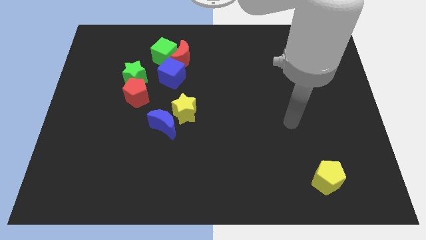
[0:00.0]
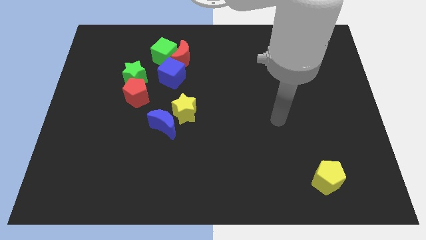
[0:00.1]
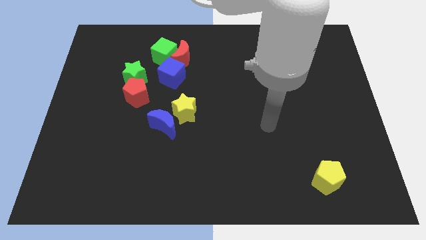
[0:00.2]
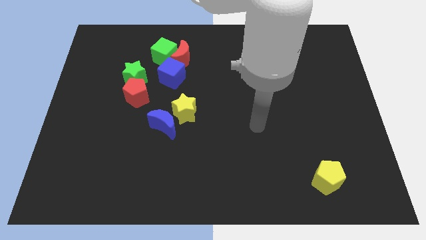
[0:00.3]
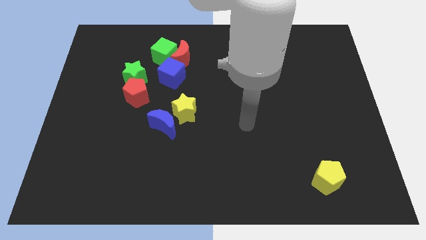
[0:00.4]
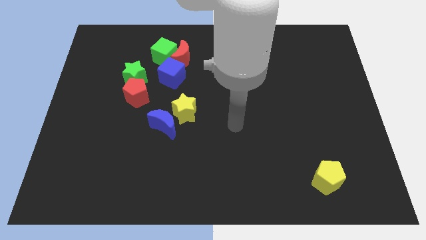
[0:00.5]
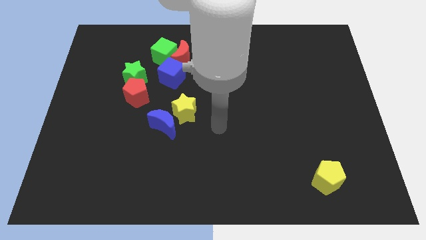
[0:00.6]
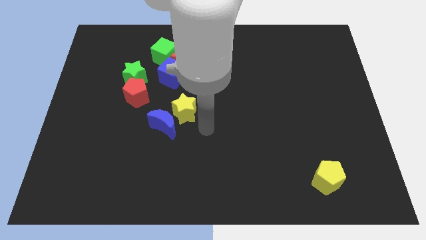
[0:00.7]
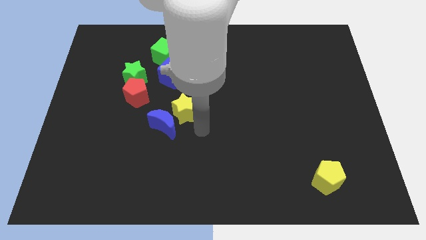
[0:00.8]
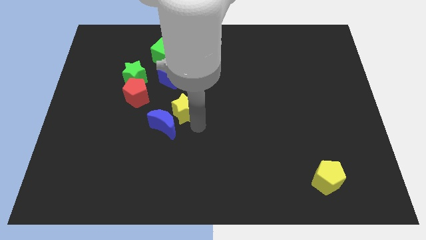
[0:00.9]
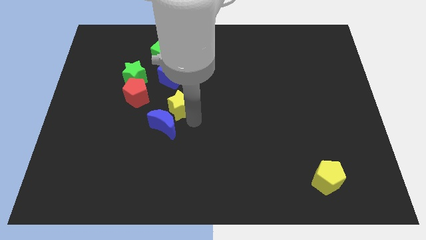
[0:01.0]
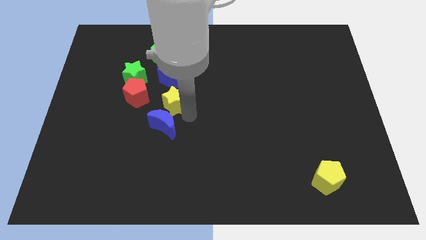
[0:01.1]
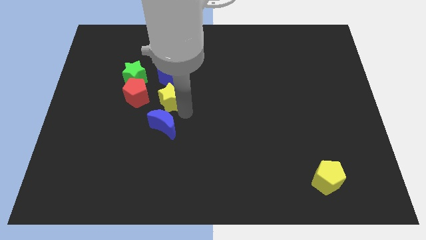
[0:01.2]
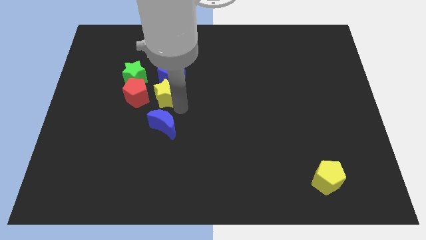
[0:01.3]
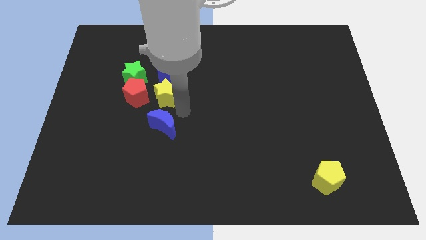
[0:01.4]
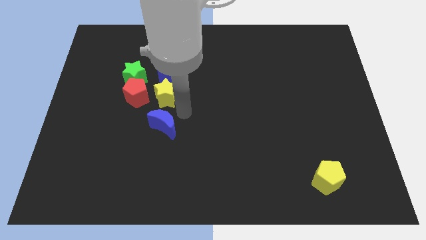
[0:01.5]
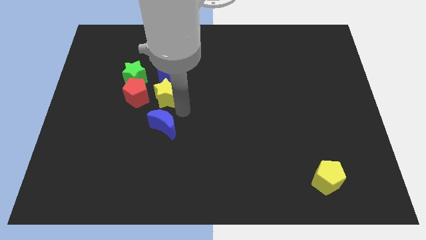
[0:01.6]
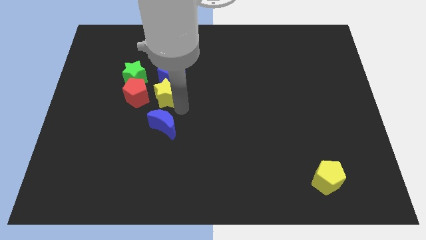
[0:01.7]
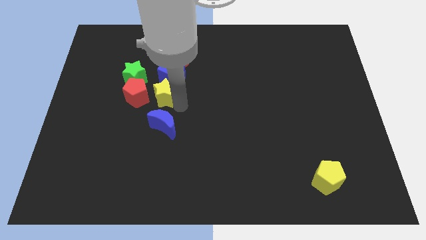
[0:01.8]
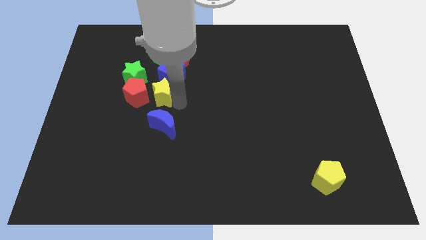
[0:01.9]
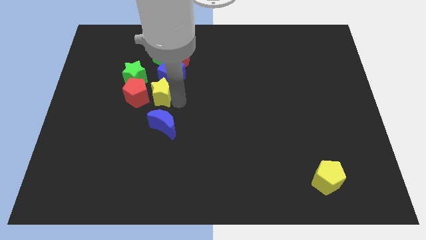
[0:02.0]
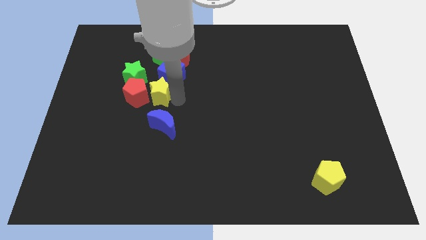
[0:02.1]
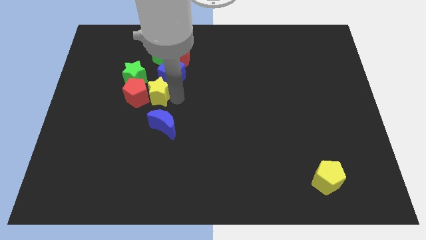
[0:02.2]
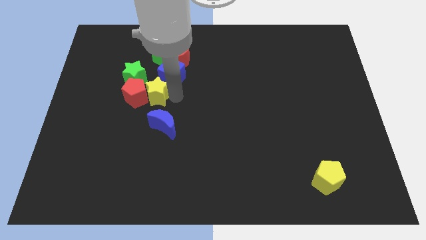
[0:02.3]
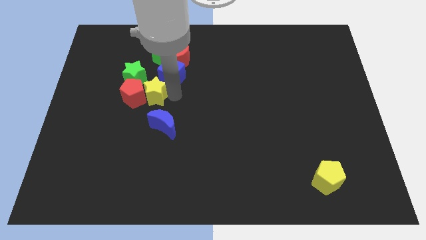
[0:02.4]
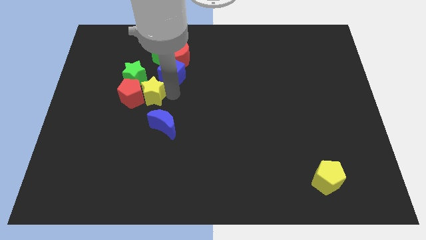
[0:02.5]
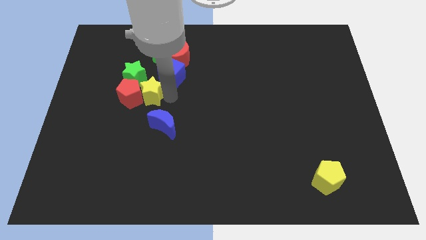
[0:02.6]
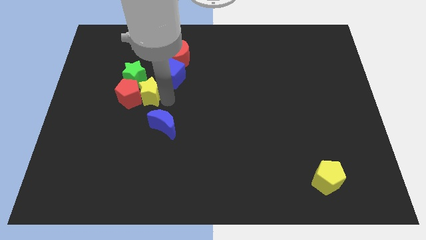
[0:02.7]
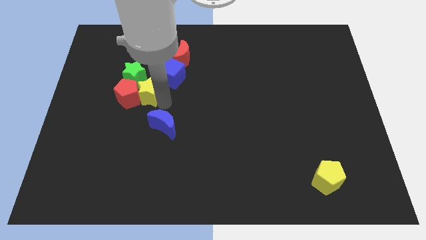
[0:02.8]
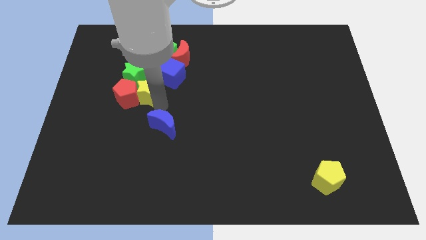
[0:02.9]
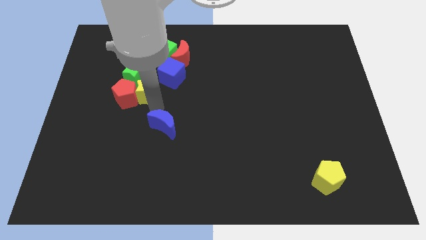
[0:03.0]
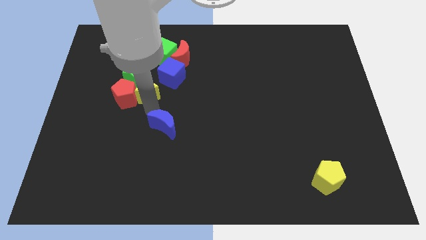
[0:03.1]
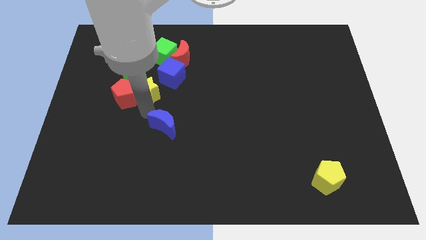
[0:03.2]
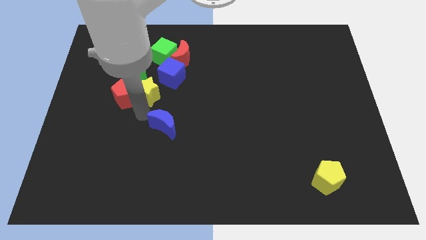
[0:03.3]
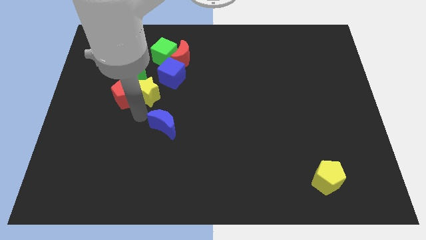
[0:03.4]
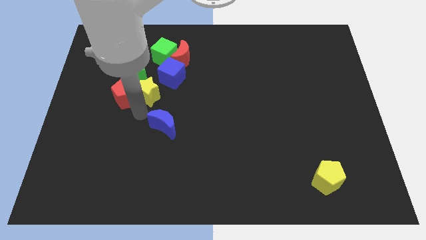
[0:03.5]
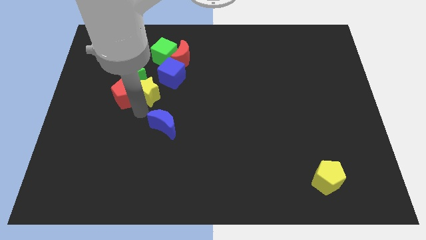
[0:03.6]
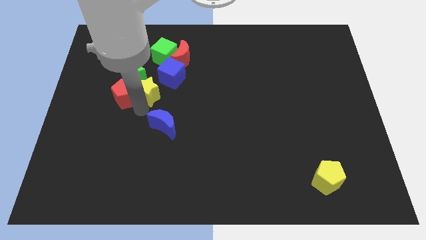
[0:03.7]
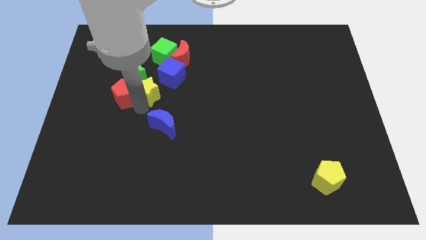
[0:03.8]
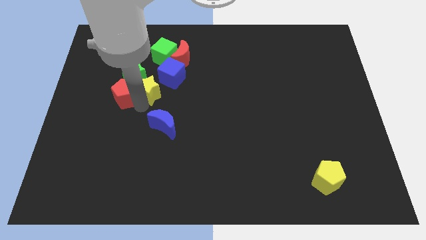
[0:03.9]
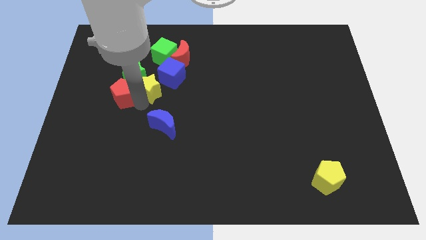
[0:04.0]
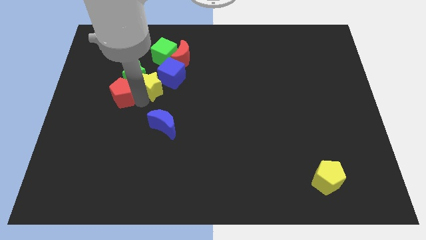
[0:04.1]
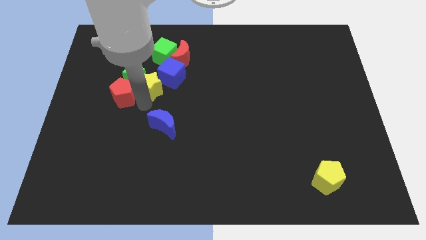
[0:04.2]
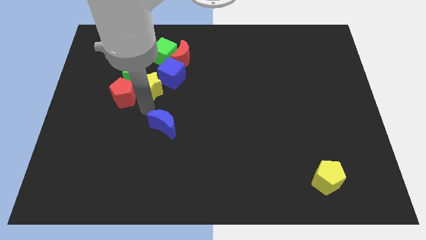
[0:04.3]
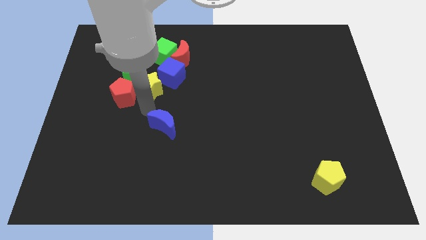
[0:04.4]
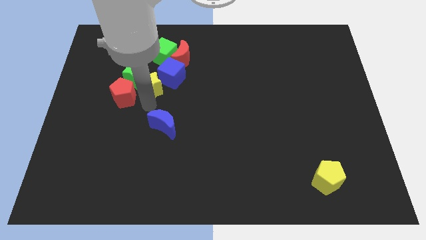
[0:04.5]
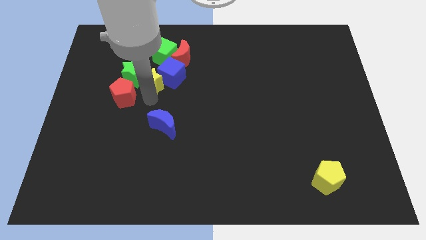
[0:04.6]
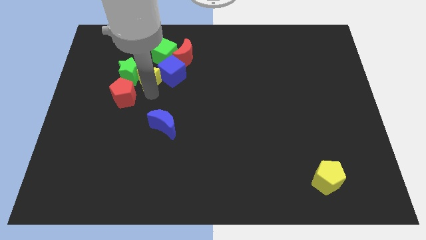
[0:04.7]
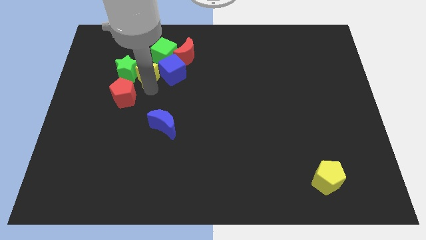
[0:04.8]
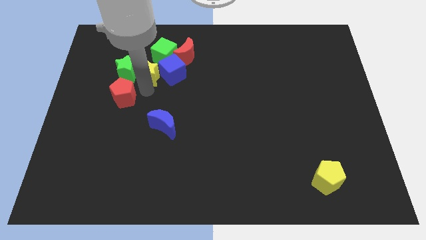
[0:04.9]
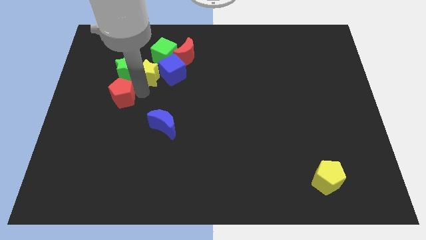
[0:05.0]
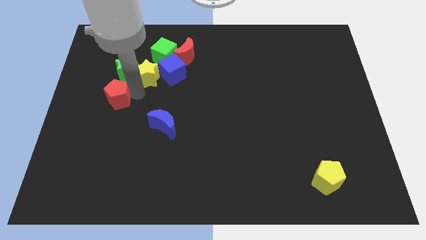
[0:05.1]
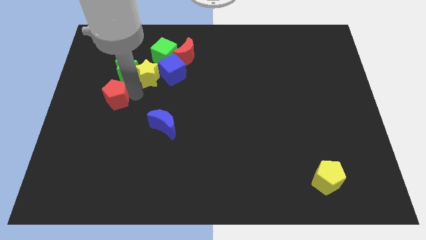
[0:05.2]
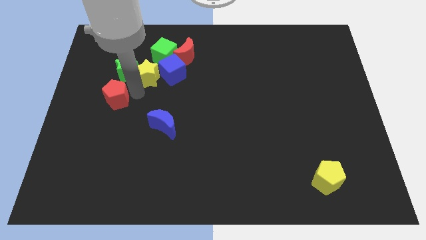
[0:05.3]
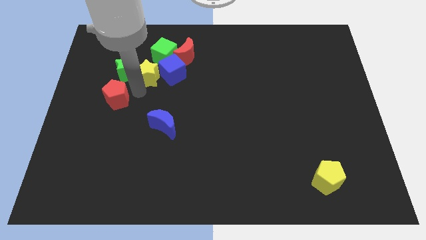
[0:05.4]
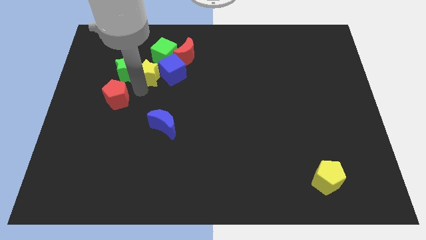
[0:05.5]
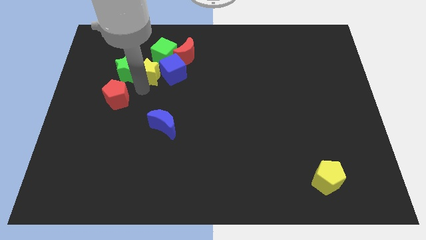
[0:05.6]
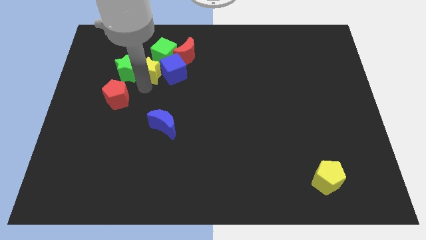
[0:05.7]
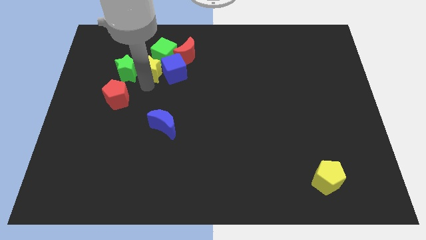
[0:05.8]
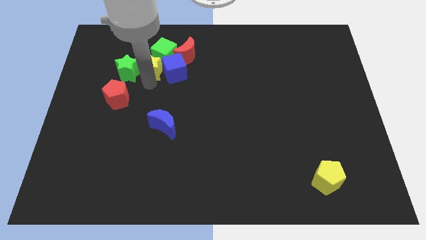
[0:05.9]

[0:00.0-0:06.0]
move the yellow star to the green cube

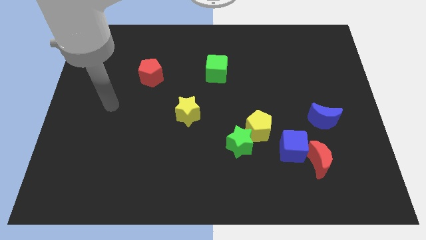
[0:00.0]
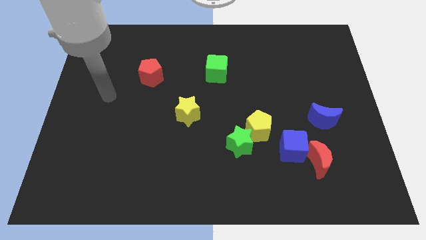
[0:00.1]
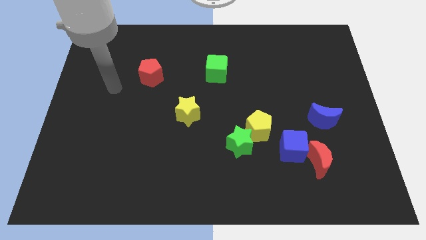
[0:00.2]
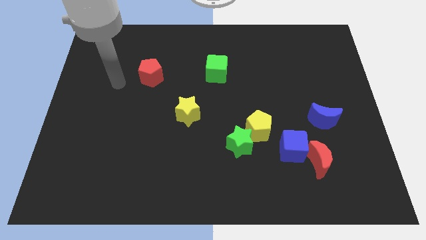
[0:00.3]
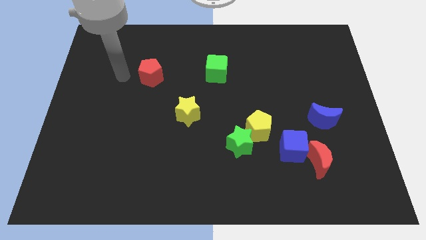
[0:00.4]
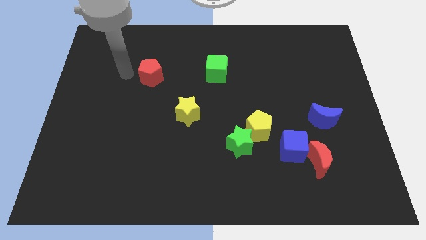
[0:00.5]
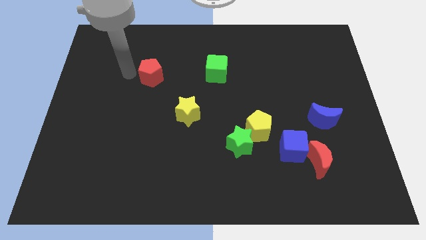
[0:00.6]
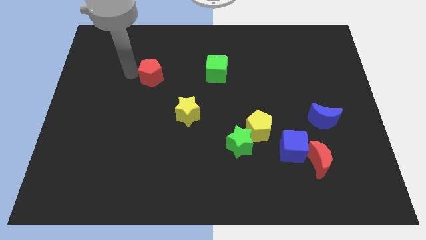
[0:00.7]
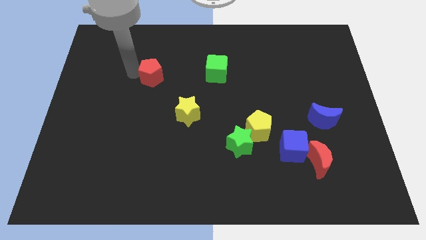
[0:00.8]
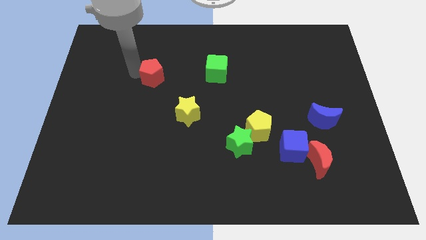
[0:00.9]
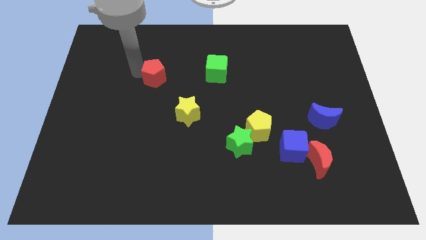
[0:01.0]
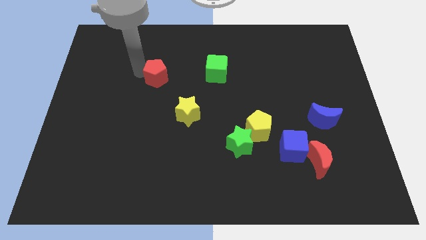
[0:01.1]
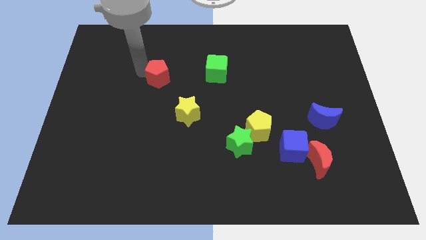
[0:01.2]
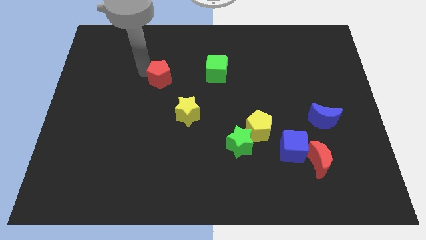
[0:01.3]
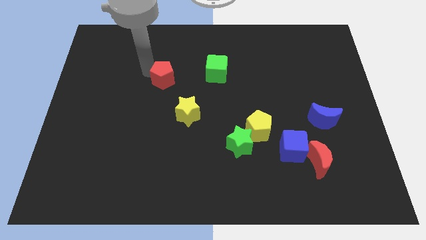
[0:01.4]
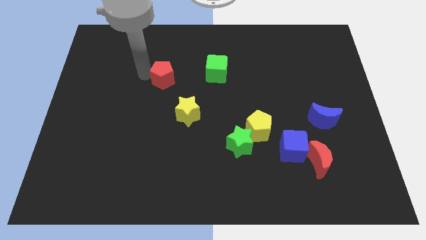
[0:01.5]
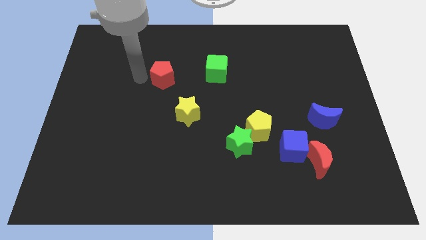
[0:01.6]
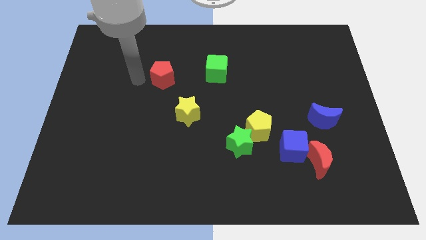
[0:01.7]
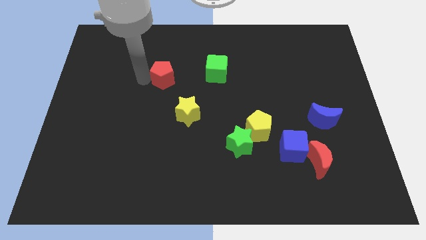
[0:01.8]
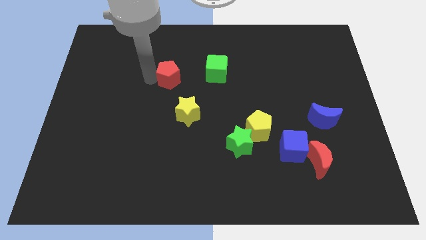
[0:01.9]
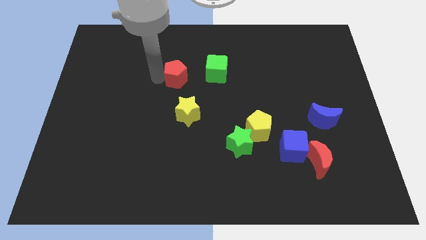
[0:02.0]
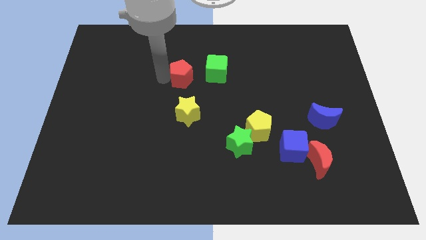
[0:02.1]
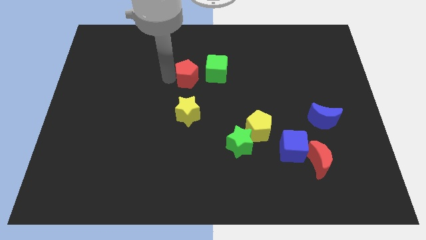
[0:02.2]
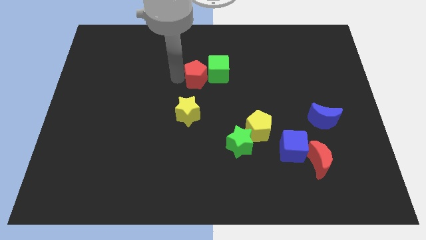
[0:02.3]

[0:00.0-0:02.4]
slide the red pentagon to the green cube
